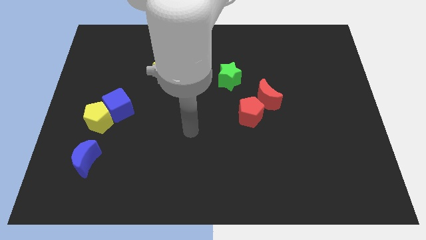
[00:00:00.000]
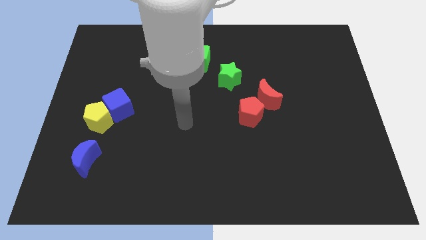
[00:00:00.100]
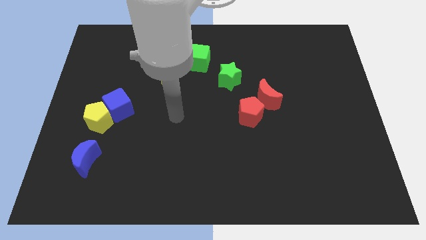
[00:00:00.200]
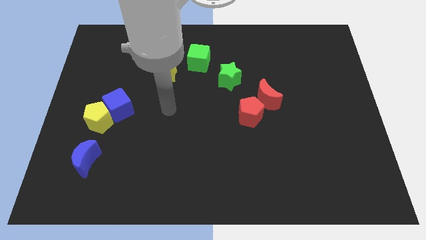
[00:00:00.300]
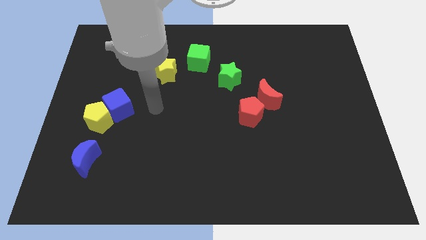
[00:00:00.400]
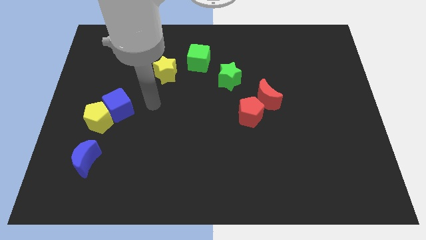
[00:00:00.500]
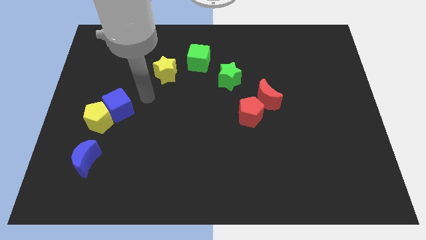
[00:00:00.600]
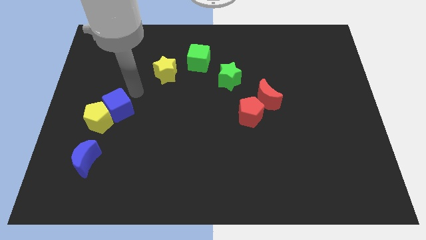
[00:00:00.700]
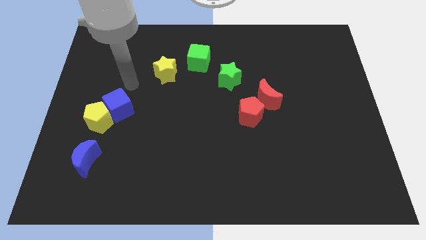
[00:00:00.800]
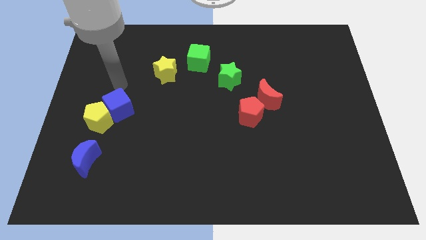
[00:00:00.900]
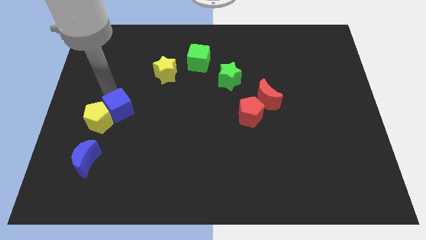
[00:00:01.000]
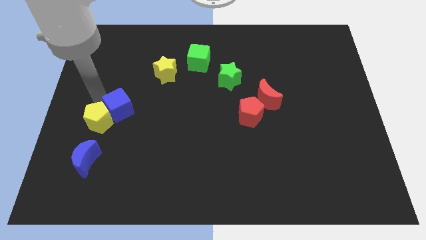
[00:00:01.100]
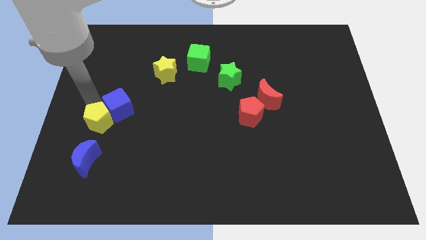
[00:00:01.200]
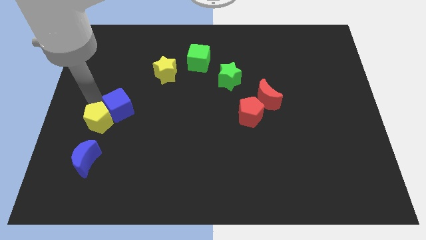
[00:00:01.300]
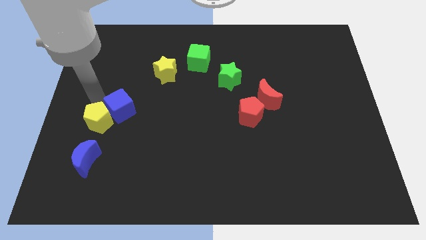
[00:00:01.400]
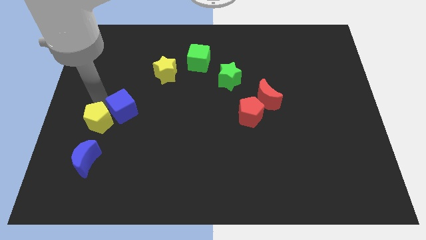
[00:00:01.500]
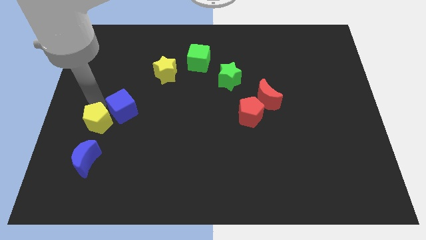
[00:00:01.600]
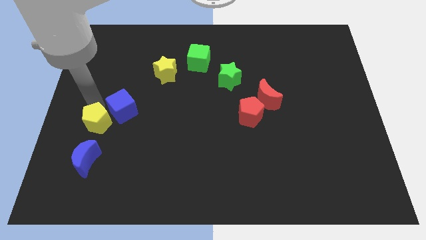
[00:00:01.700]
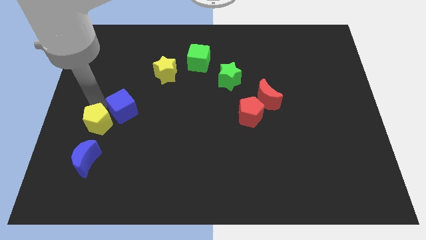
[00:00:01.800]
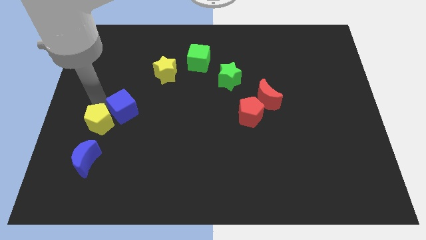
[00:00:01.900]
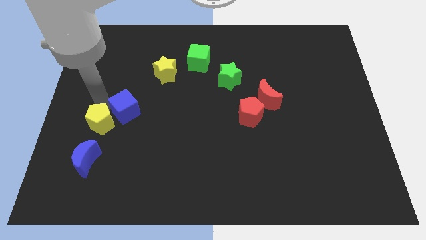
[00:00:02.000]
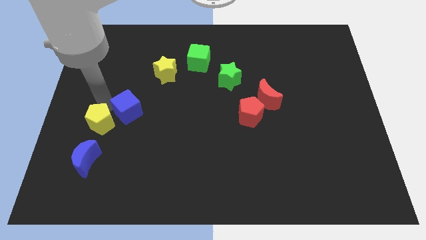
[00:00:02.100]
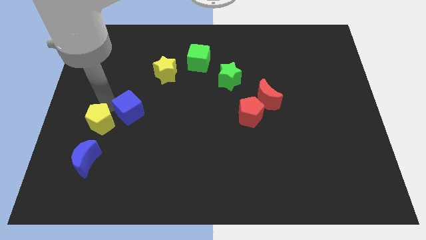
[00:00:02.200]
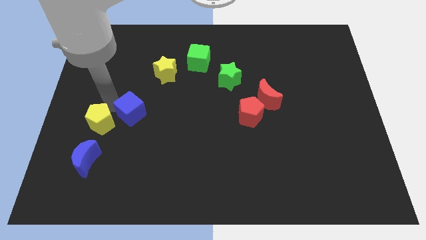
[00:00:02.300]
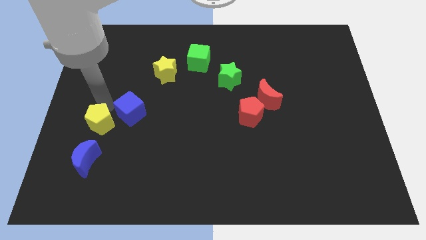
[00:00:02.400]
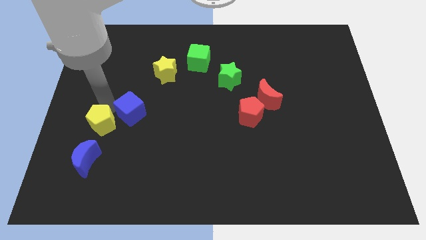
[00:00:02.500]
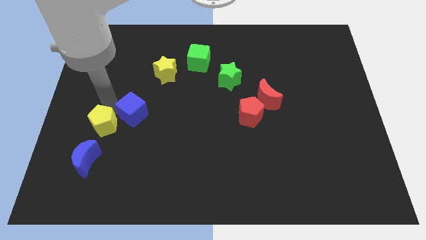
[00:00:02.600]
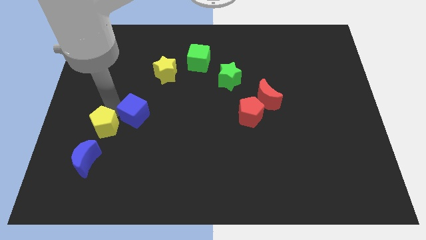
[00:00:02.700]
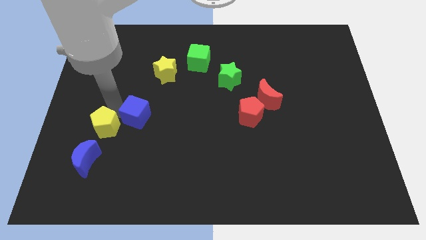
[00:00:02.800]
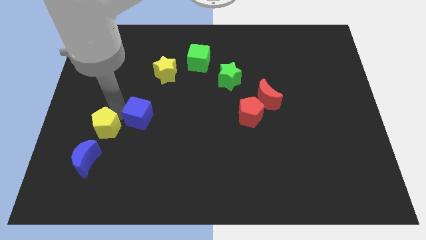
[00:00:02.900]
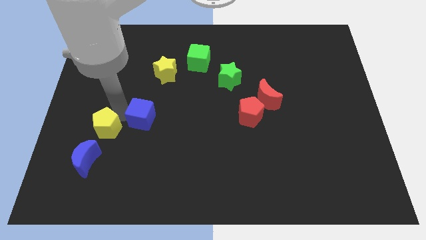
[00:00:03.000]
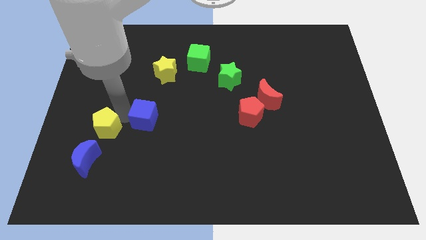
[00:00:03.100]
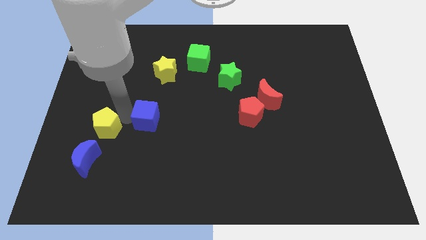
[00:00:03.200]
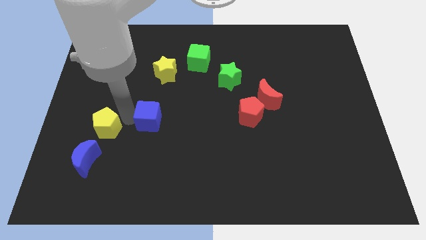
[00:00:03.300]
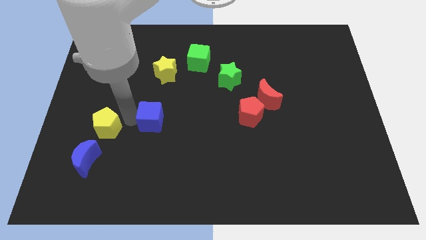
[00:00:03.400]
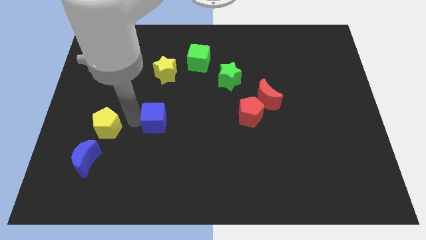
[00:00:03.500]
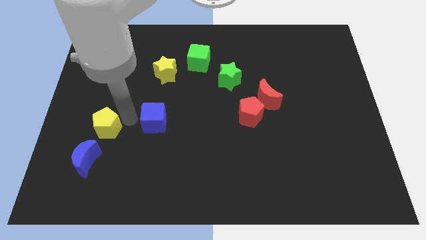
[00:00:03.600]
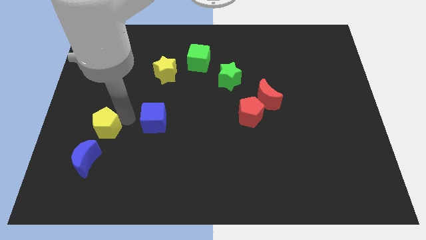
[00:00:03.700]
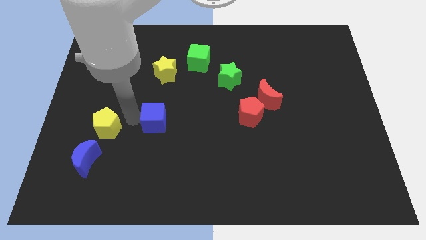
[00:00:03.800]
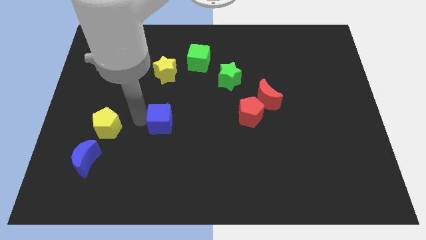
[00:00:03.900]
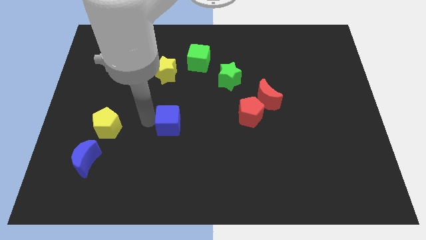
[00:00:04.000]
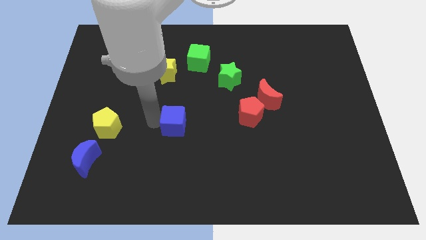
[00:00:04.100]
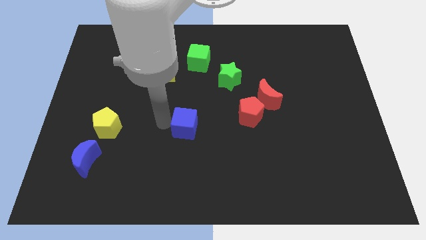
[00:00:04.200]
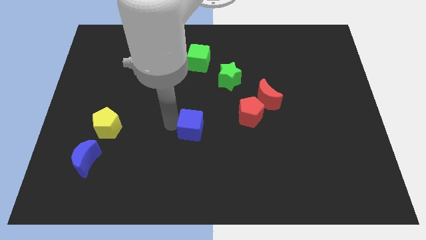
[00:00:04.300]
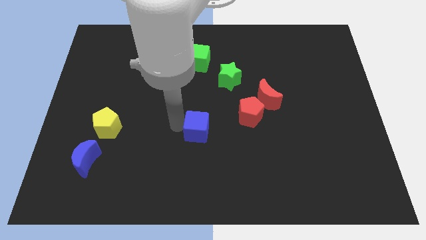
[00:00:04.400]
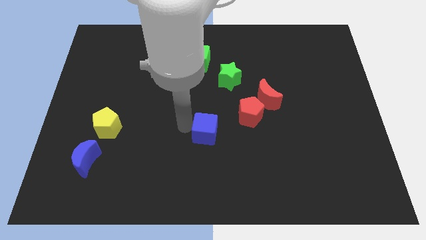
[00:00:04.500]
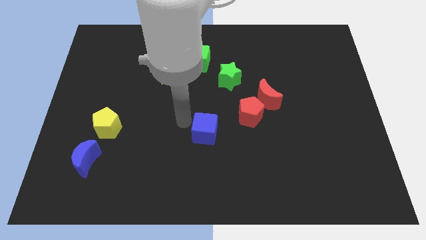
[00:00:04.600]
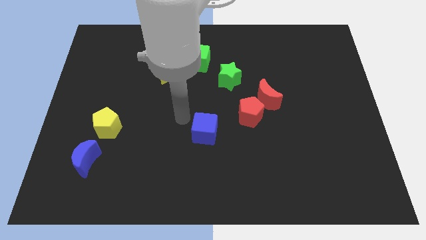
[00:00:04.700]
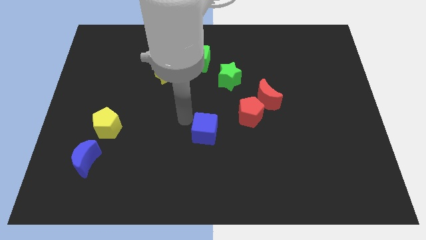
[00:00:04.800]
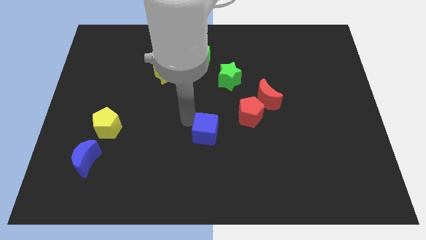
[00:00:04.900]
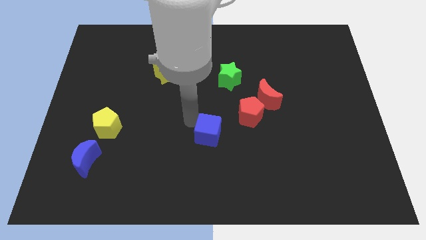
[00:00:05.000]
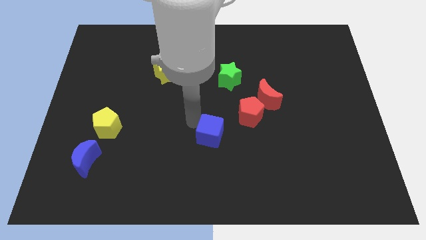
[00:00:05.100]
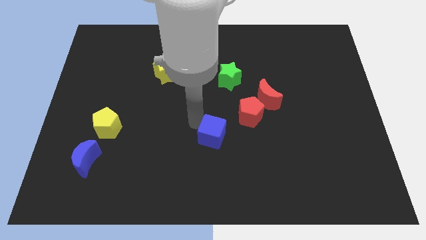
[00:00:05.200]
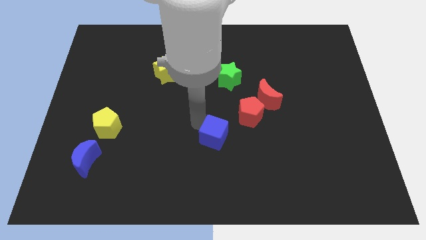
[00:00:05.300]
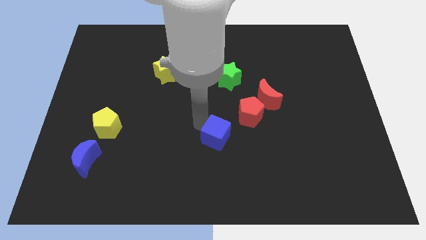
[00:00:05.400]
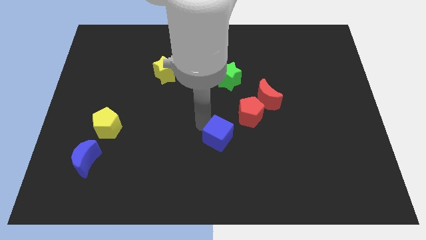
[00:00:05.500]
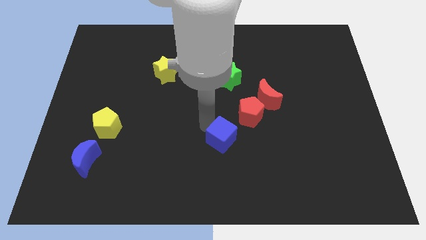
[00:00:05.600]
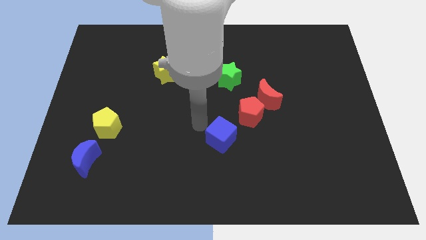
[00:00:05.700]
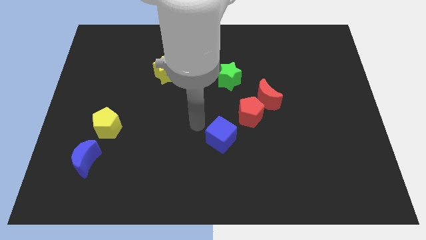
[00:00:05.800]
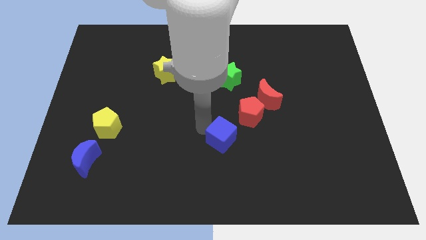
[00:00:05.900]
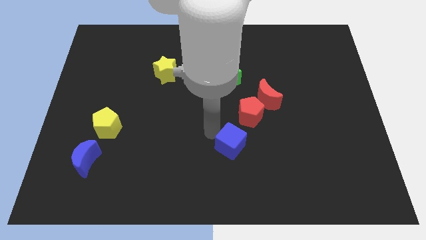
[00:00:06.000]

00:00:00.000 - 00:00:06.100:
move the blue cube to the bottom of the red pentagon

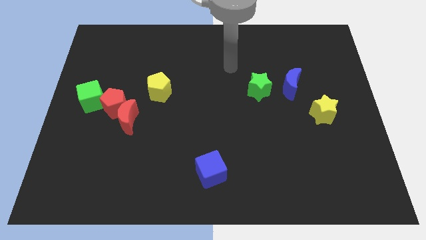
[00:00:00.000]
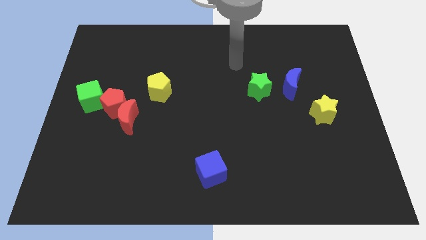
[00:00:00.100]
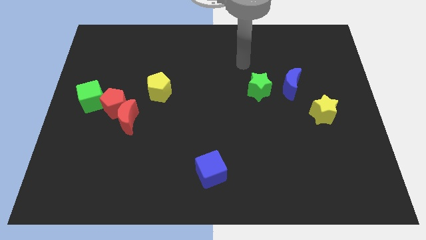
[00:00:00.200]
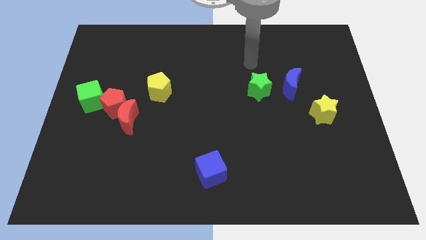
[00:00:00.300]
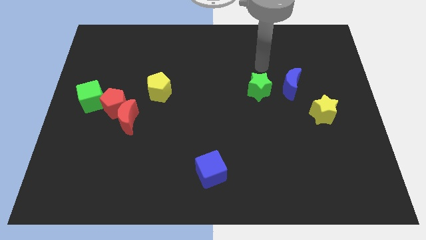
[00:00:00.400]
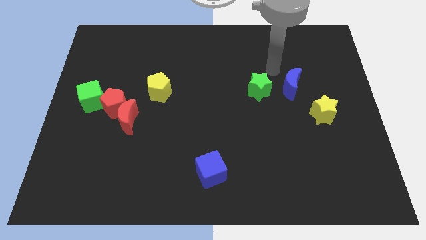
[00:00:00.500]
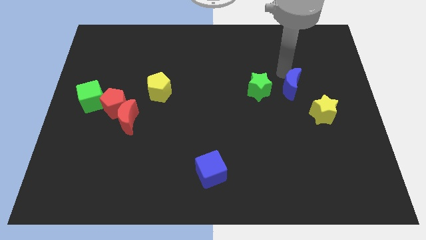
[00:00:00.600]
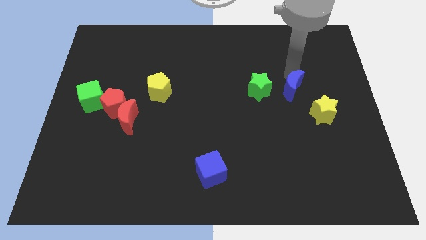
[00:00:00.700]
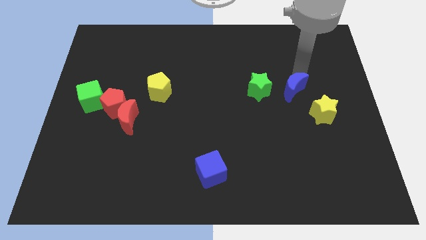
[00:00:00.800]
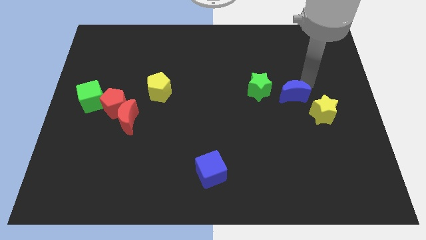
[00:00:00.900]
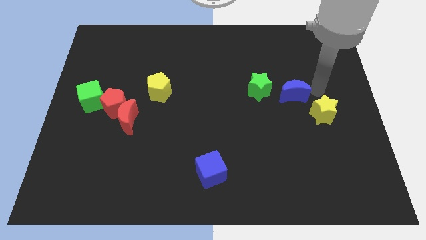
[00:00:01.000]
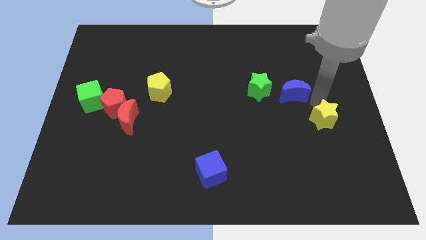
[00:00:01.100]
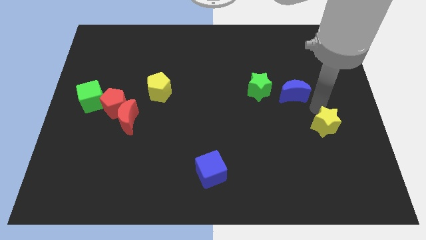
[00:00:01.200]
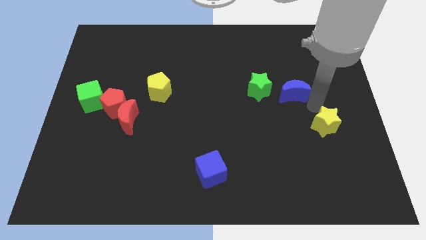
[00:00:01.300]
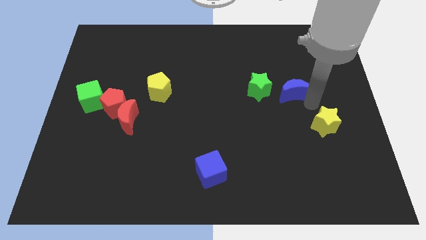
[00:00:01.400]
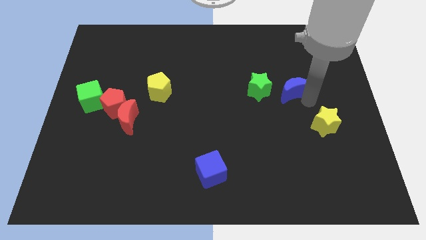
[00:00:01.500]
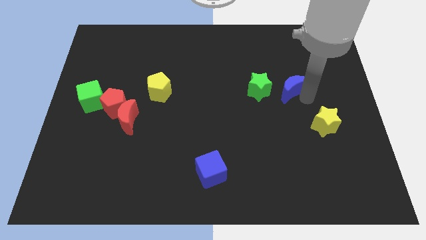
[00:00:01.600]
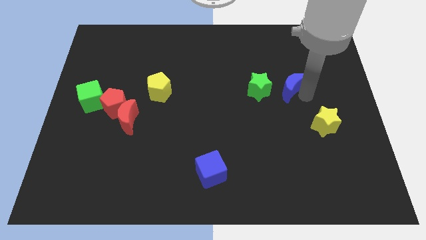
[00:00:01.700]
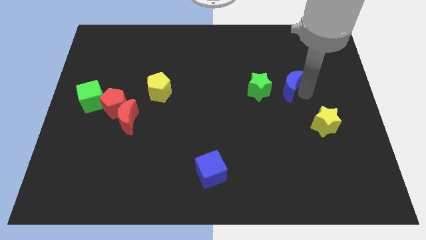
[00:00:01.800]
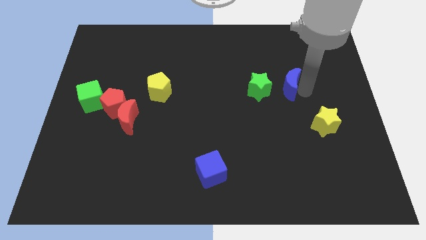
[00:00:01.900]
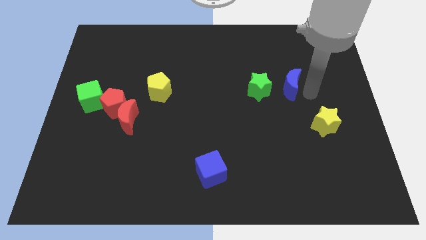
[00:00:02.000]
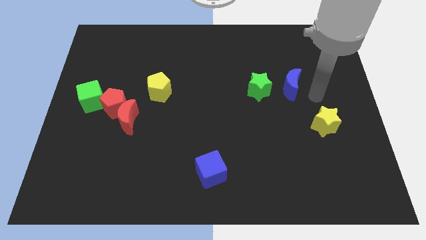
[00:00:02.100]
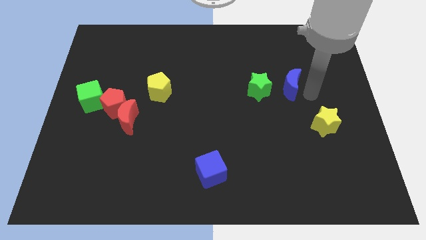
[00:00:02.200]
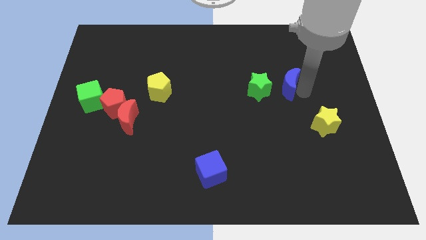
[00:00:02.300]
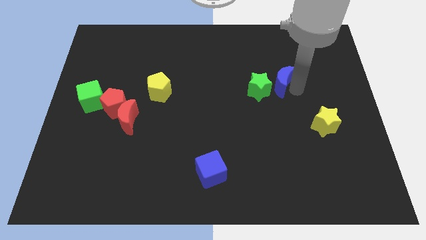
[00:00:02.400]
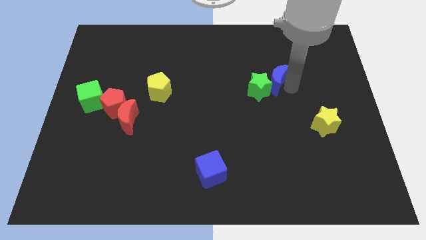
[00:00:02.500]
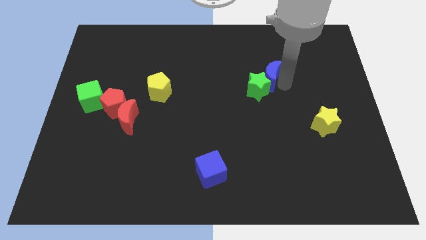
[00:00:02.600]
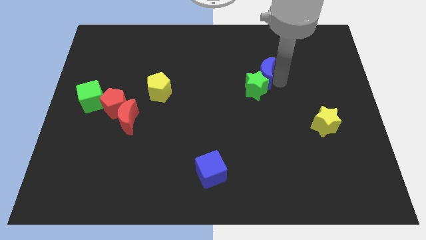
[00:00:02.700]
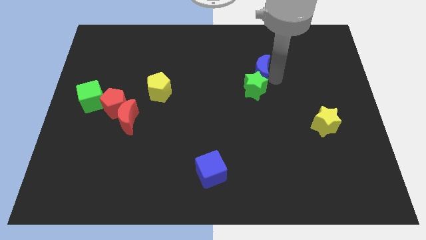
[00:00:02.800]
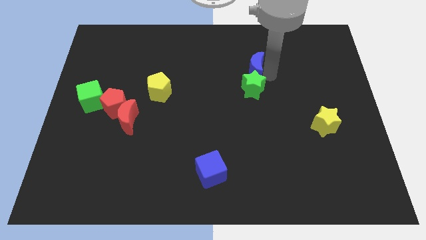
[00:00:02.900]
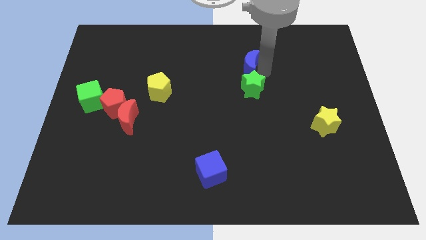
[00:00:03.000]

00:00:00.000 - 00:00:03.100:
push the blue moon to the top left of the green star
